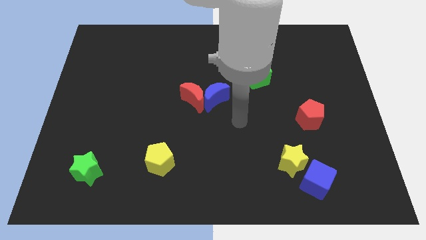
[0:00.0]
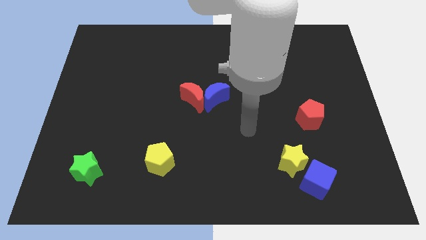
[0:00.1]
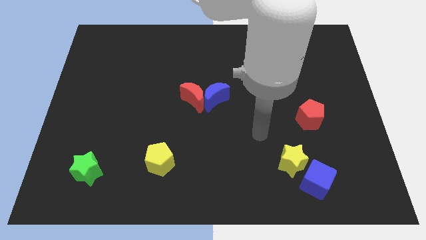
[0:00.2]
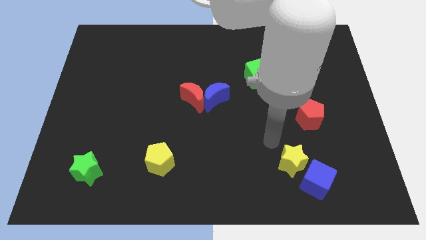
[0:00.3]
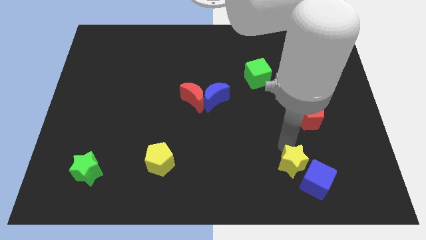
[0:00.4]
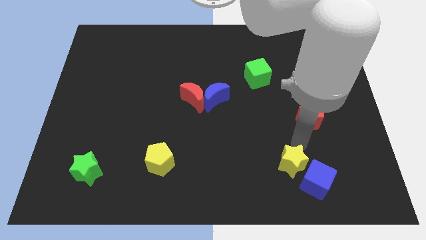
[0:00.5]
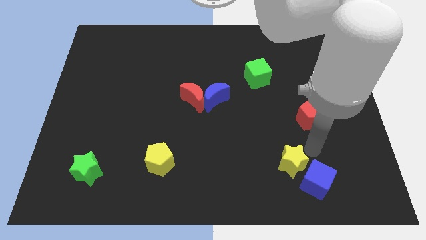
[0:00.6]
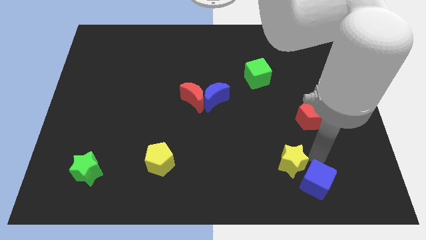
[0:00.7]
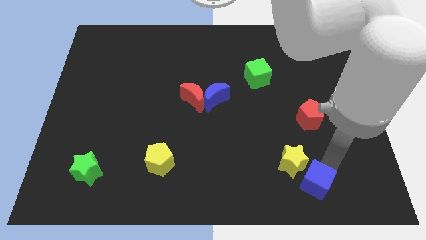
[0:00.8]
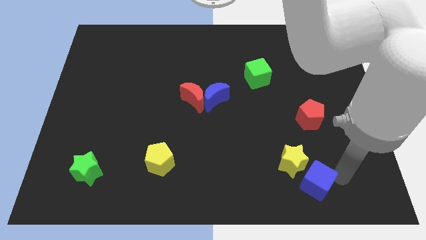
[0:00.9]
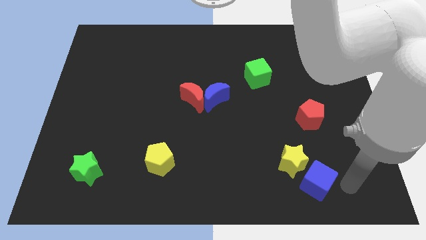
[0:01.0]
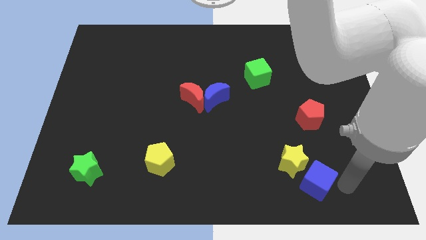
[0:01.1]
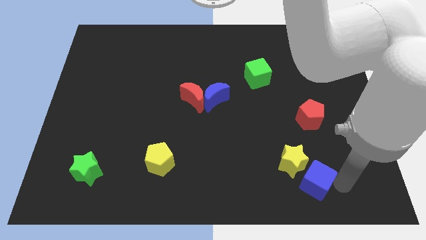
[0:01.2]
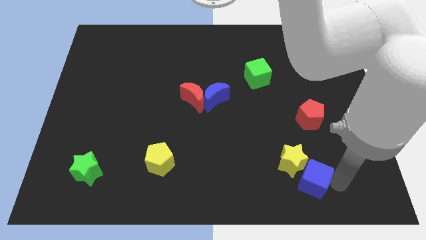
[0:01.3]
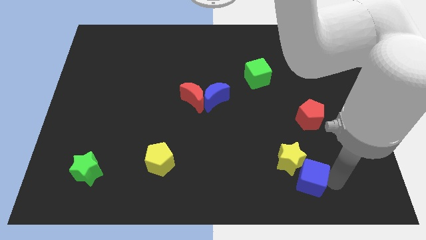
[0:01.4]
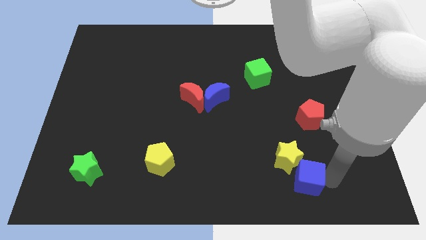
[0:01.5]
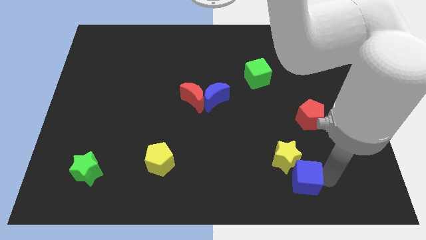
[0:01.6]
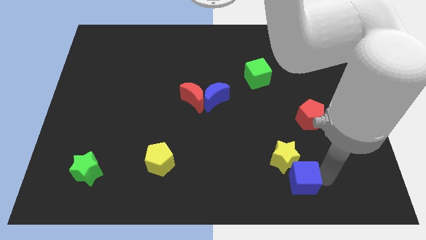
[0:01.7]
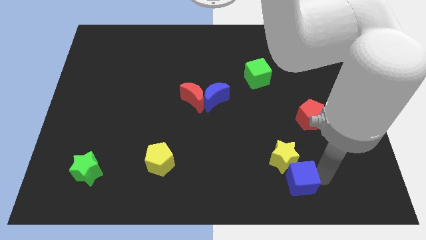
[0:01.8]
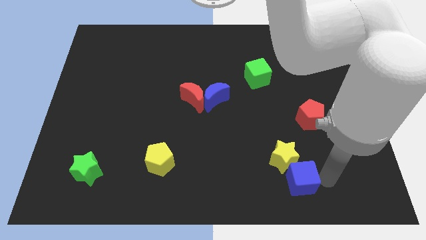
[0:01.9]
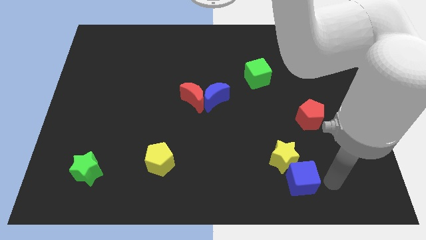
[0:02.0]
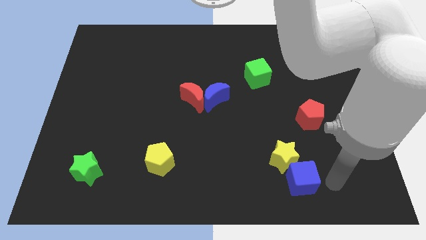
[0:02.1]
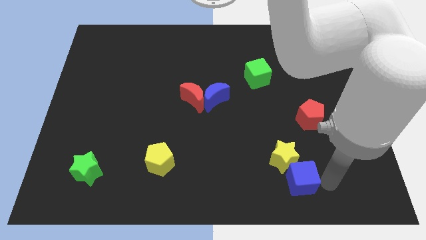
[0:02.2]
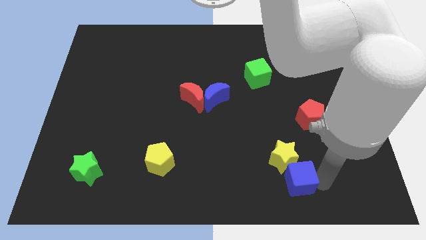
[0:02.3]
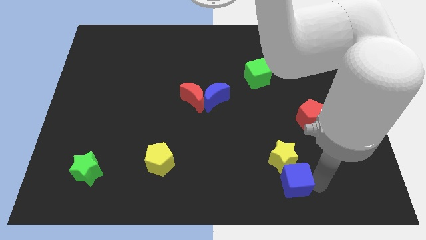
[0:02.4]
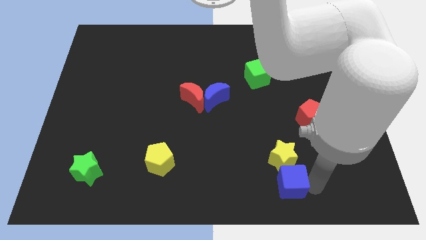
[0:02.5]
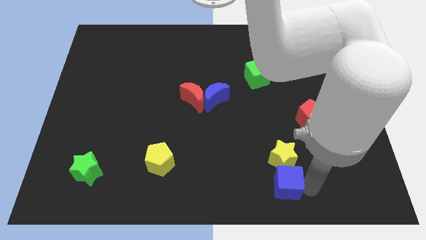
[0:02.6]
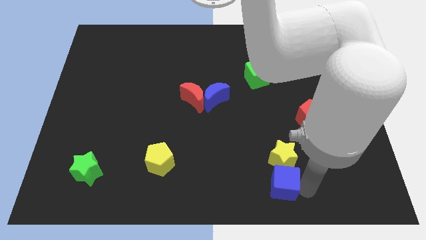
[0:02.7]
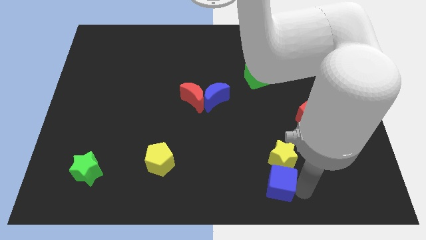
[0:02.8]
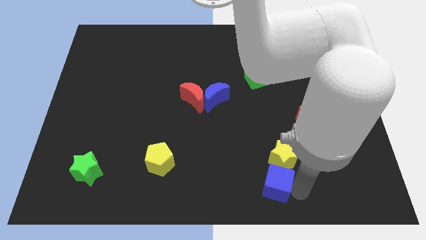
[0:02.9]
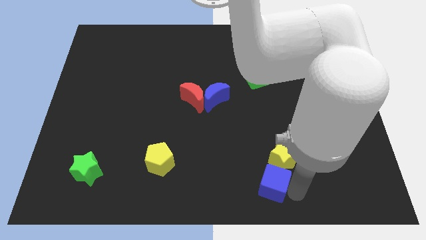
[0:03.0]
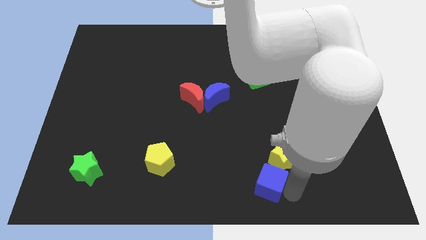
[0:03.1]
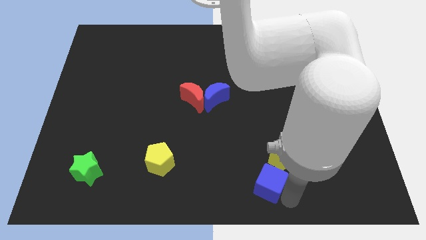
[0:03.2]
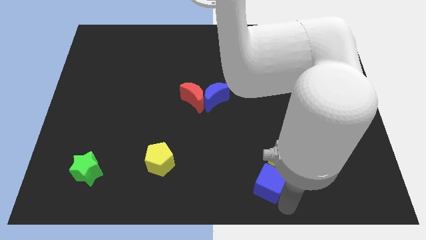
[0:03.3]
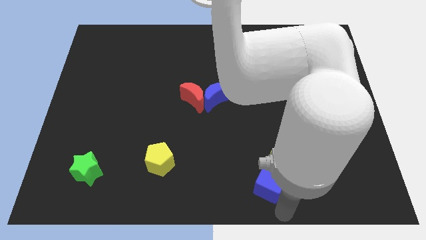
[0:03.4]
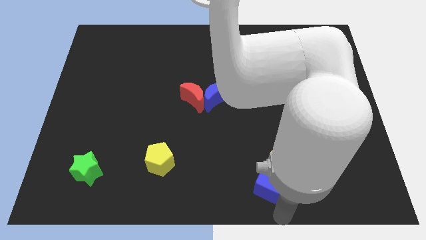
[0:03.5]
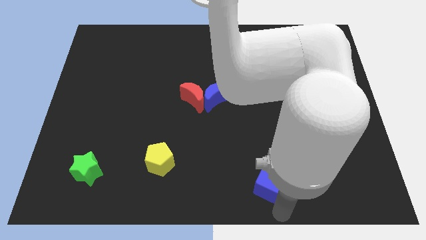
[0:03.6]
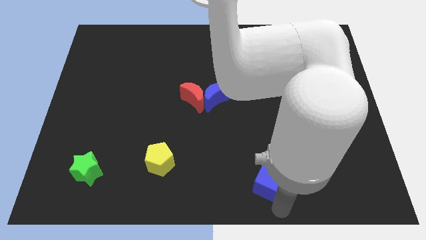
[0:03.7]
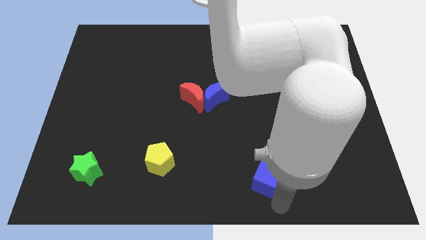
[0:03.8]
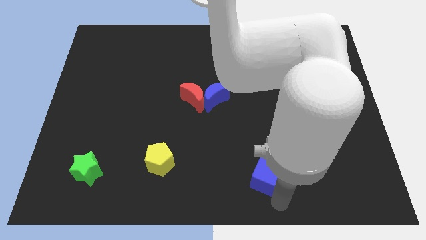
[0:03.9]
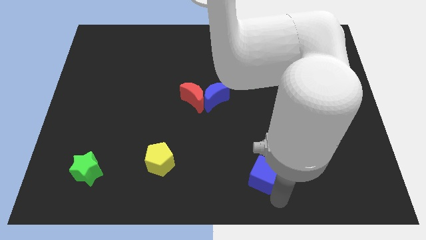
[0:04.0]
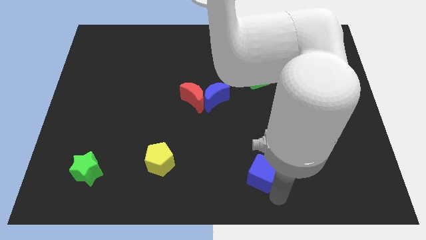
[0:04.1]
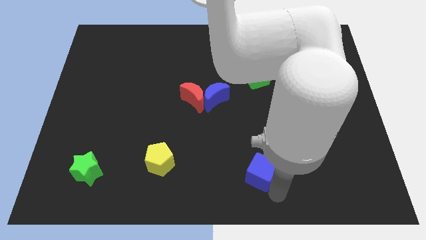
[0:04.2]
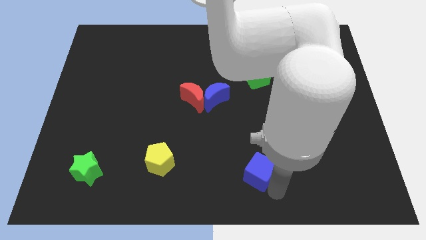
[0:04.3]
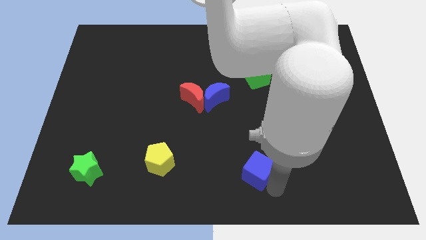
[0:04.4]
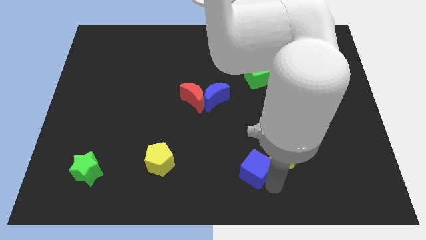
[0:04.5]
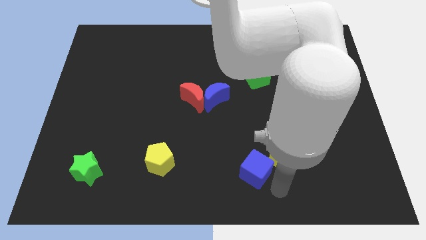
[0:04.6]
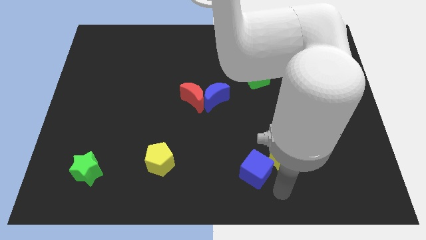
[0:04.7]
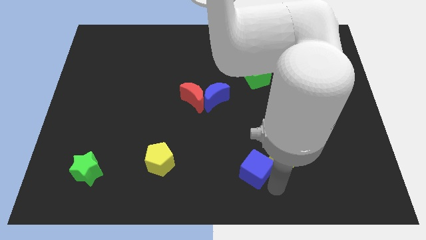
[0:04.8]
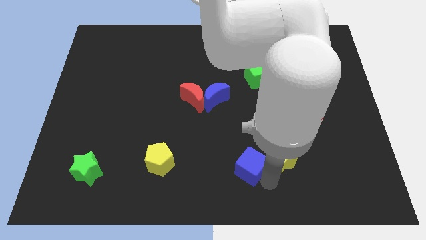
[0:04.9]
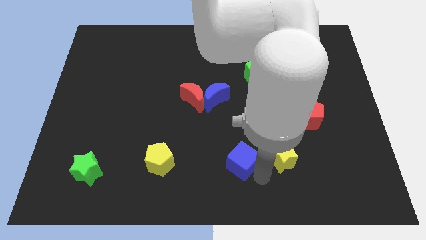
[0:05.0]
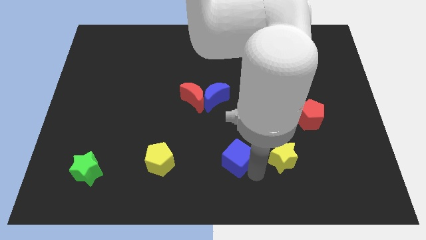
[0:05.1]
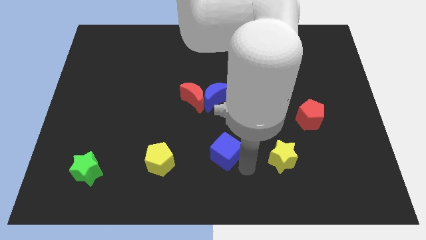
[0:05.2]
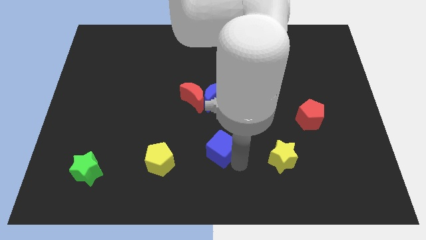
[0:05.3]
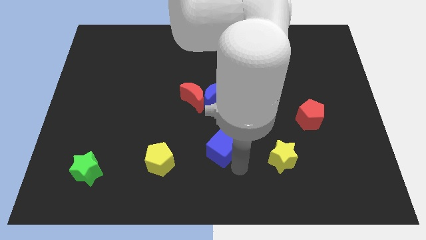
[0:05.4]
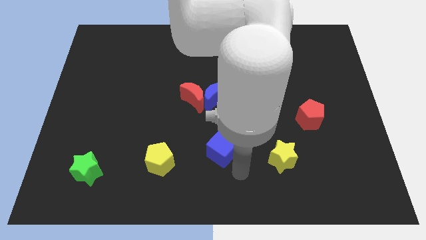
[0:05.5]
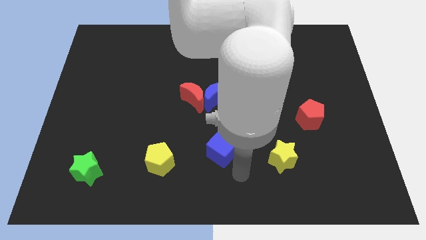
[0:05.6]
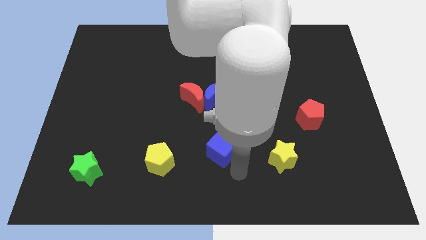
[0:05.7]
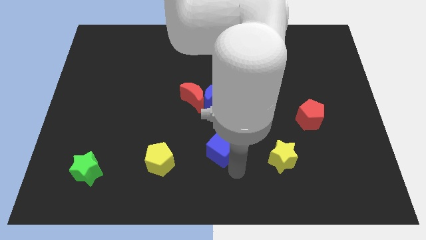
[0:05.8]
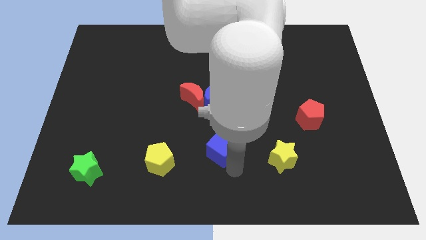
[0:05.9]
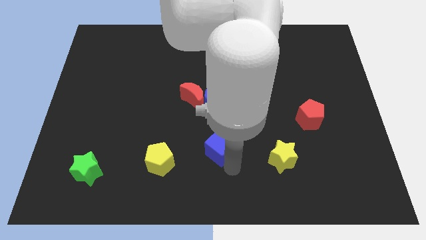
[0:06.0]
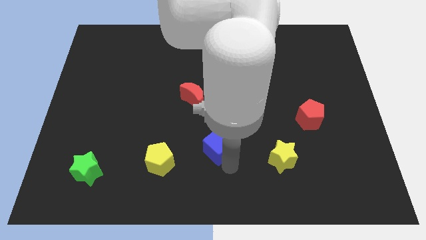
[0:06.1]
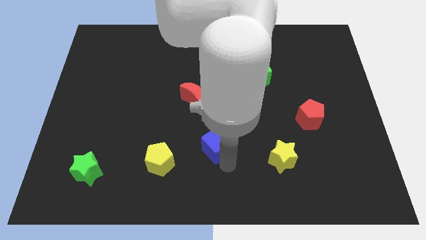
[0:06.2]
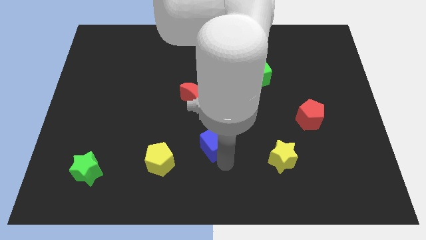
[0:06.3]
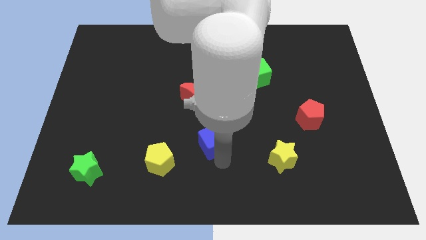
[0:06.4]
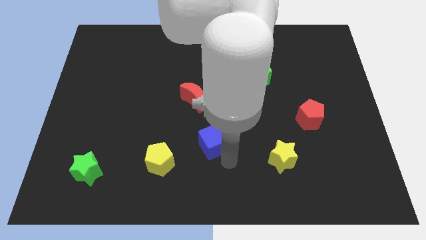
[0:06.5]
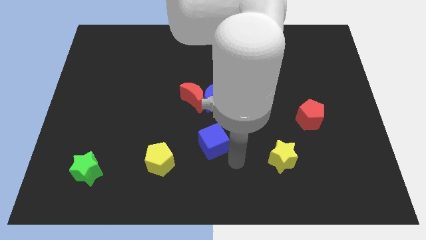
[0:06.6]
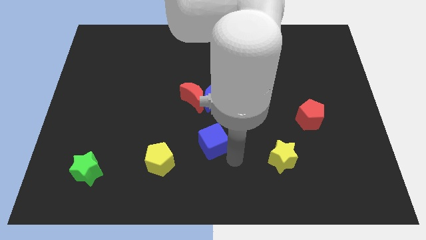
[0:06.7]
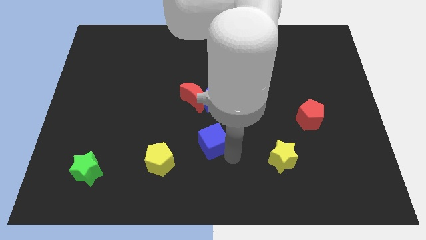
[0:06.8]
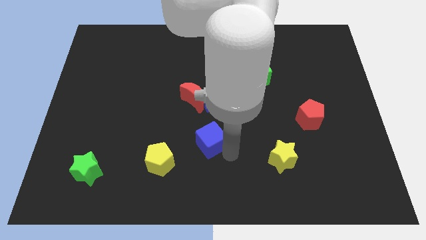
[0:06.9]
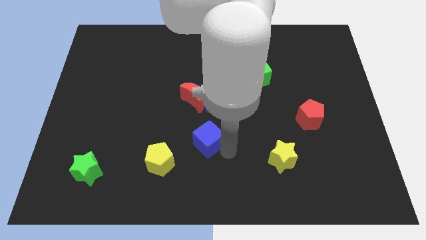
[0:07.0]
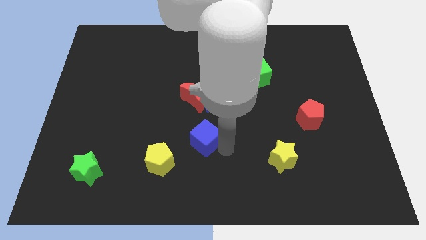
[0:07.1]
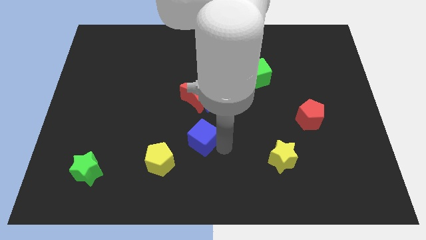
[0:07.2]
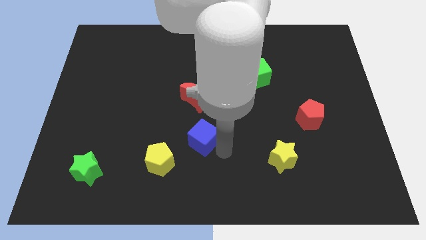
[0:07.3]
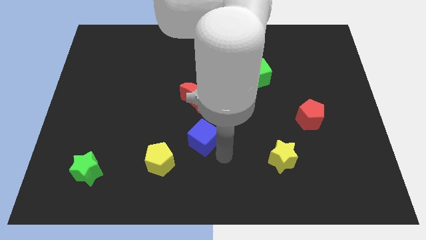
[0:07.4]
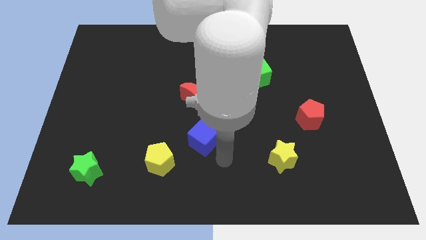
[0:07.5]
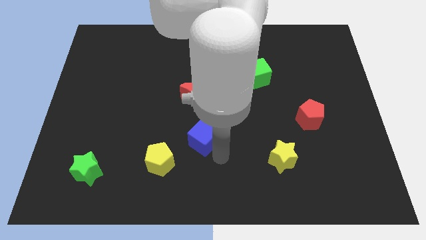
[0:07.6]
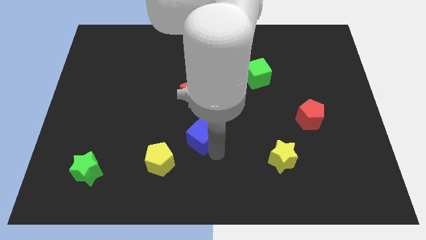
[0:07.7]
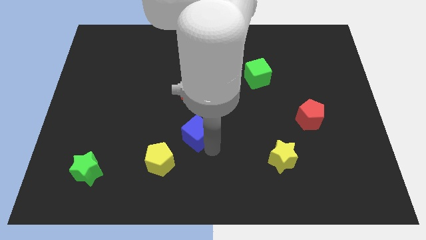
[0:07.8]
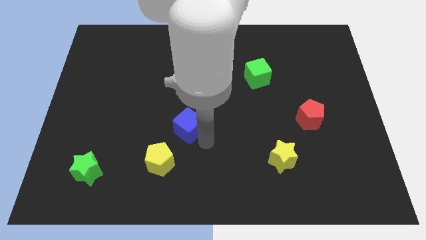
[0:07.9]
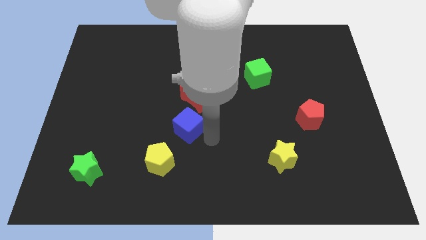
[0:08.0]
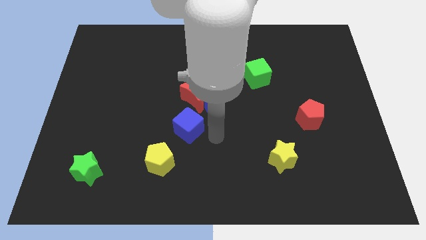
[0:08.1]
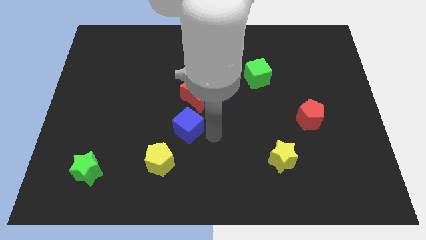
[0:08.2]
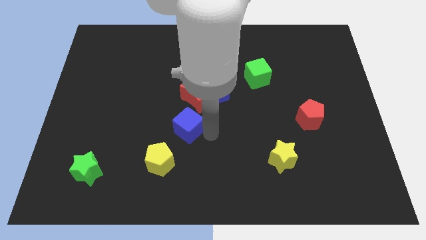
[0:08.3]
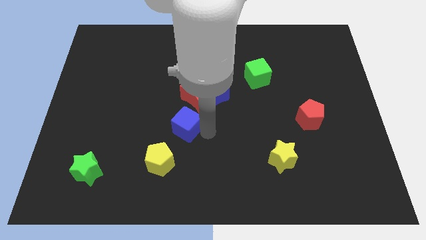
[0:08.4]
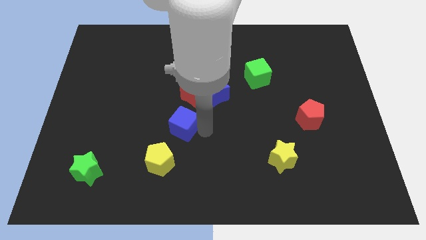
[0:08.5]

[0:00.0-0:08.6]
slide the blue cube to the top side of the yellow pentagon
